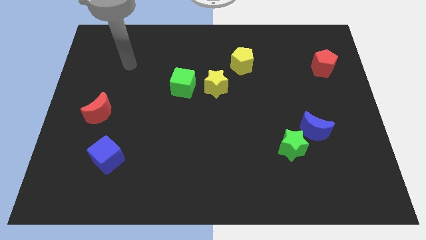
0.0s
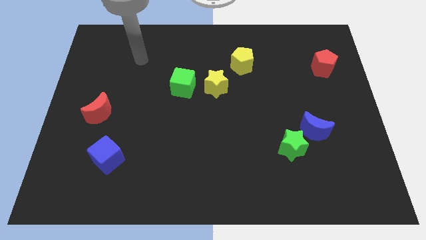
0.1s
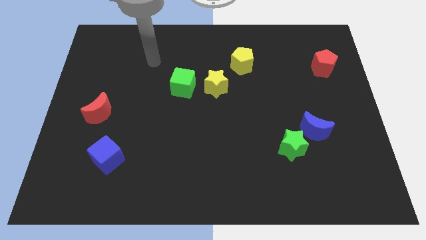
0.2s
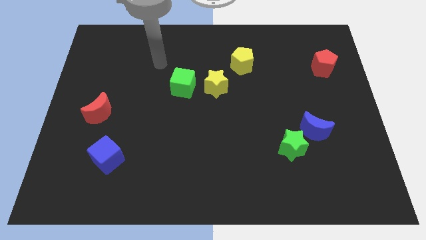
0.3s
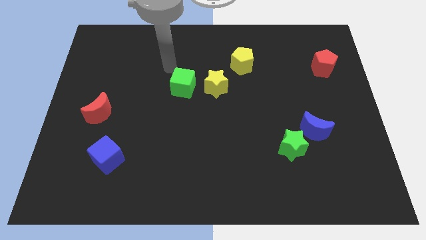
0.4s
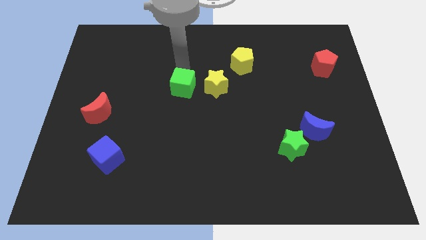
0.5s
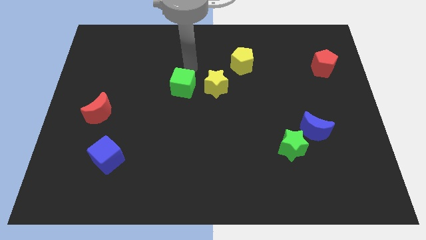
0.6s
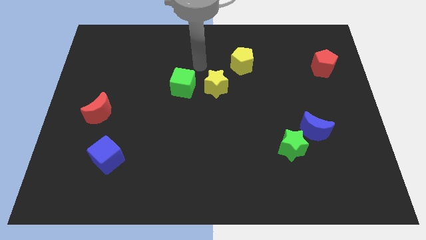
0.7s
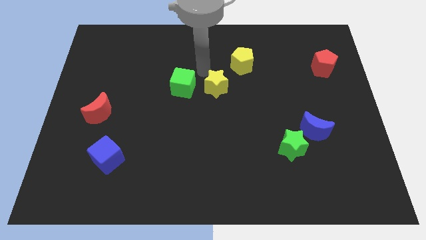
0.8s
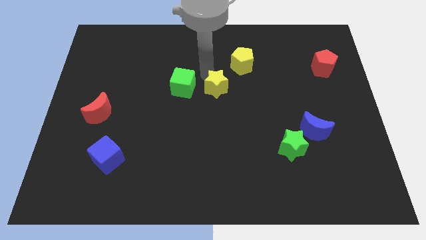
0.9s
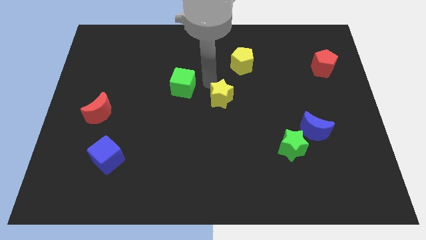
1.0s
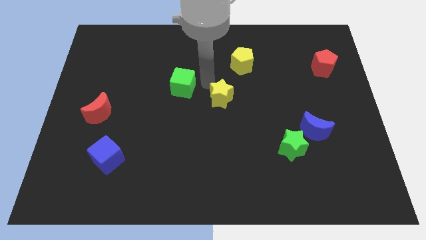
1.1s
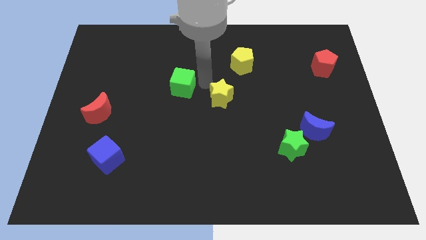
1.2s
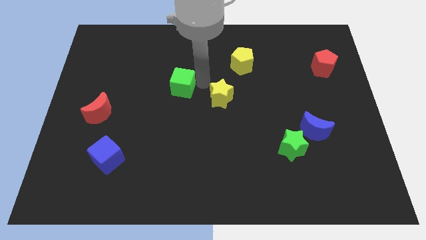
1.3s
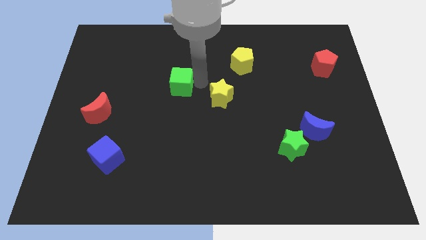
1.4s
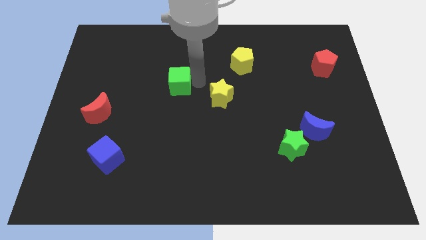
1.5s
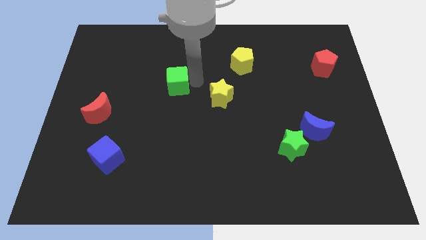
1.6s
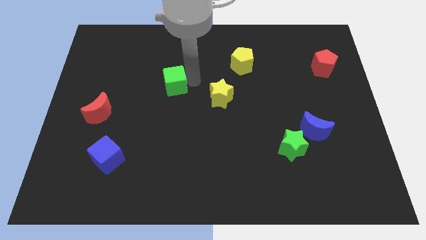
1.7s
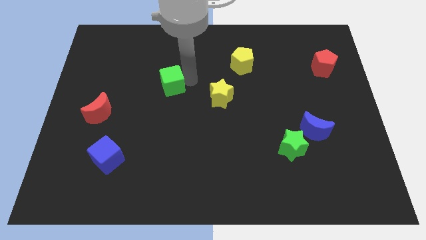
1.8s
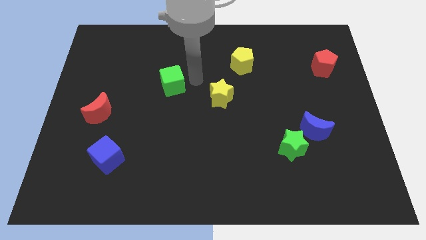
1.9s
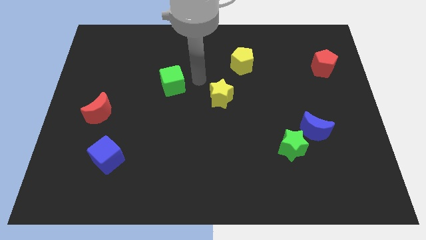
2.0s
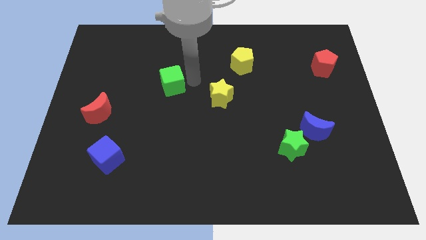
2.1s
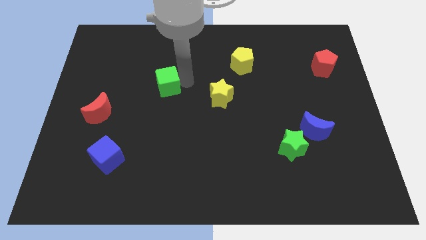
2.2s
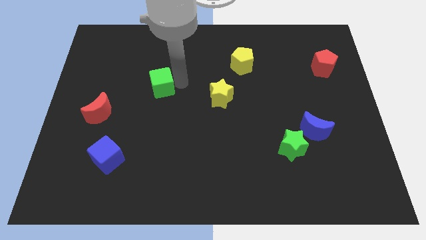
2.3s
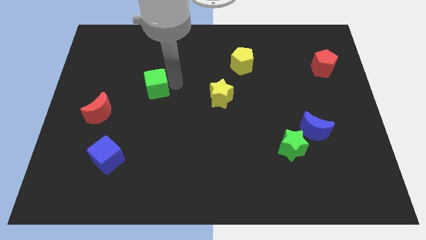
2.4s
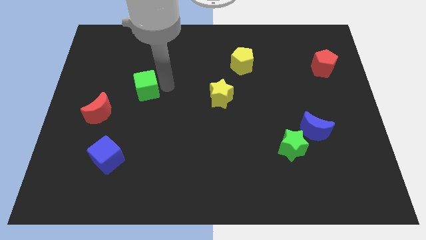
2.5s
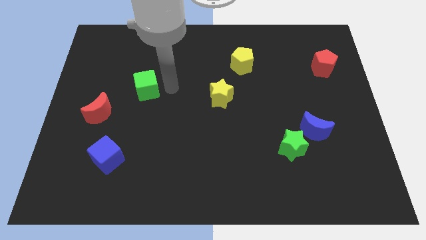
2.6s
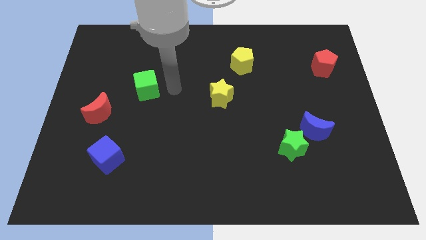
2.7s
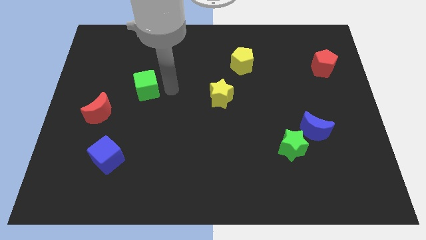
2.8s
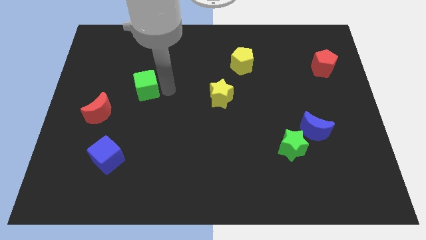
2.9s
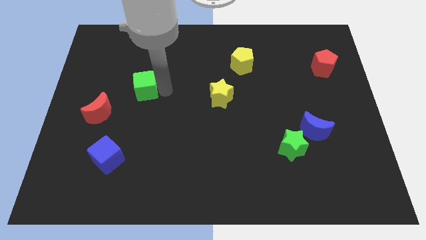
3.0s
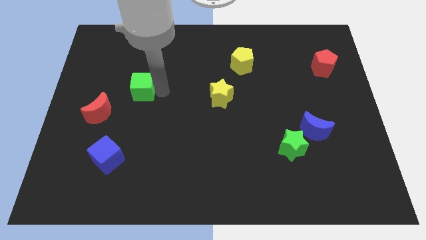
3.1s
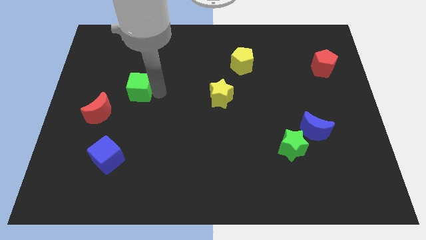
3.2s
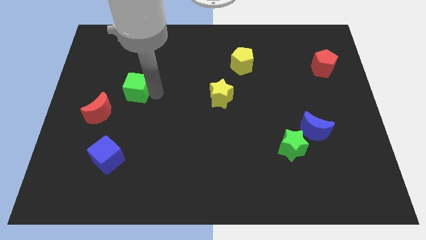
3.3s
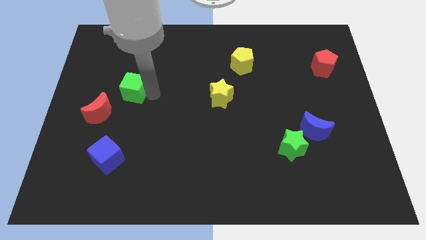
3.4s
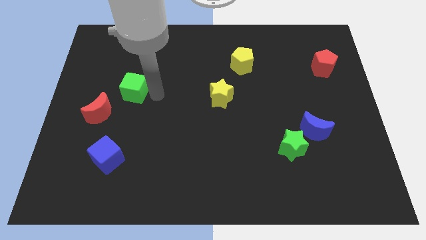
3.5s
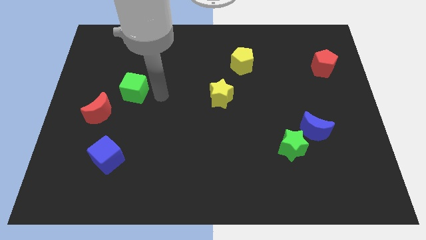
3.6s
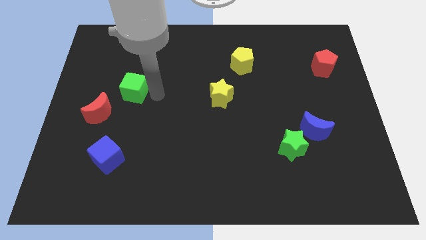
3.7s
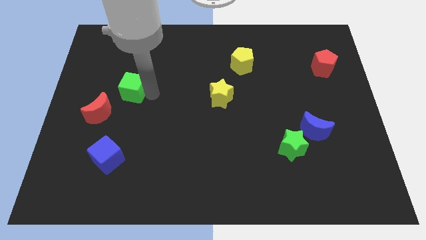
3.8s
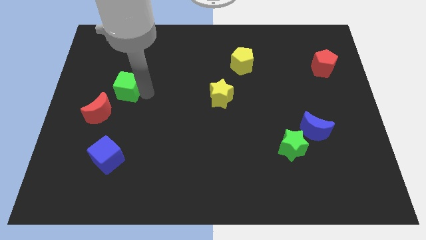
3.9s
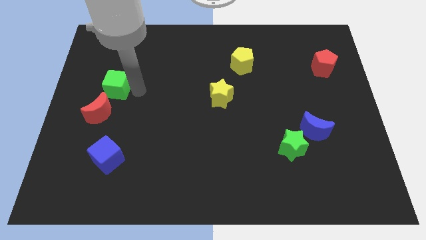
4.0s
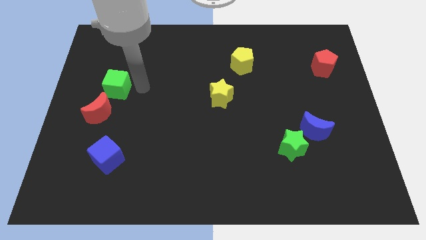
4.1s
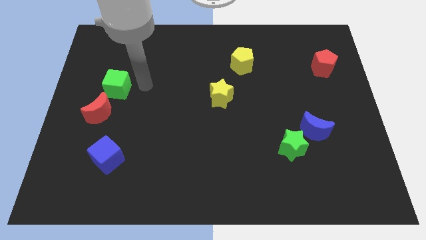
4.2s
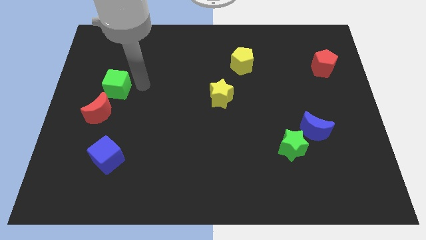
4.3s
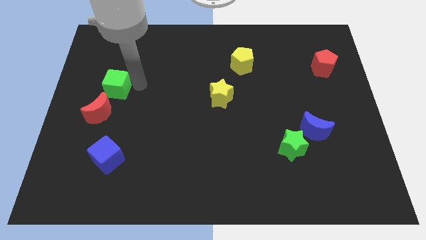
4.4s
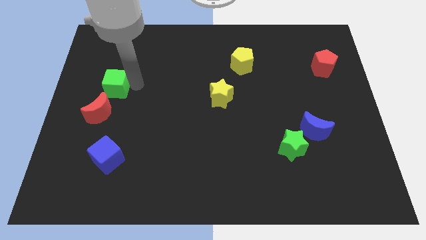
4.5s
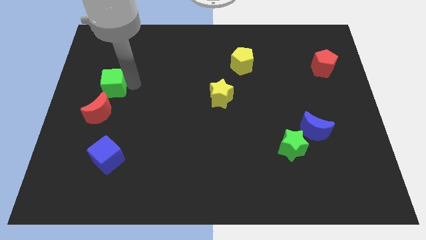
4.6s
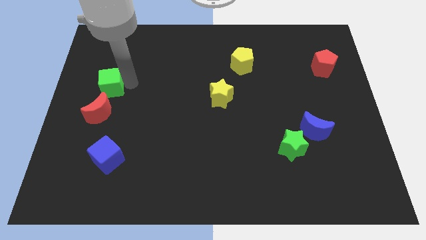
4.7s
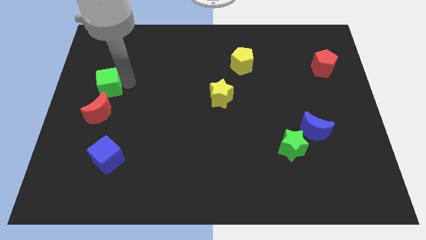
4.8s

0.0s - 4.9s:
push the green cube to the left side of the board

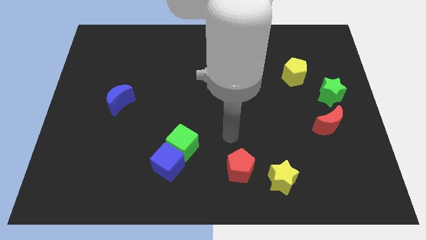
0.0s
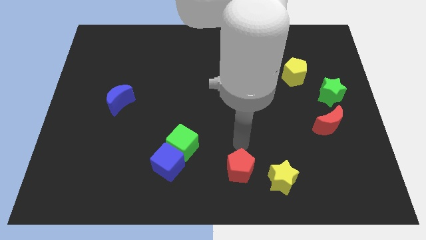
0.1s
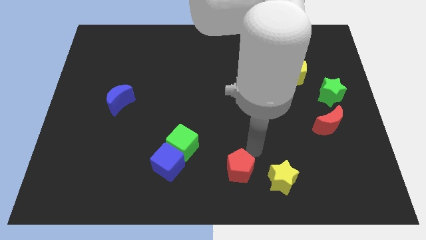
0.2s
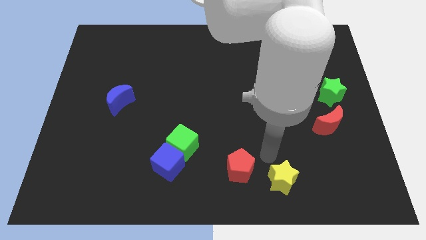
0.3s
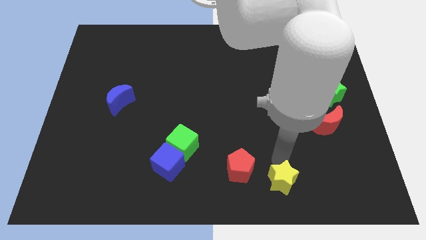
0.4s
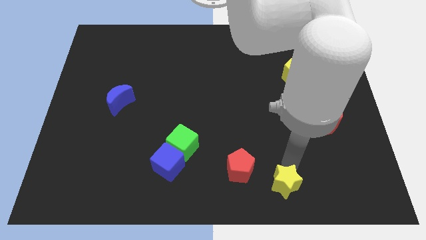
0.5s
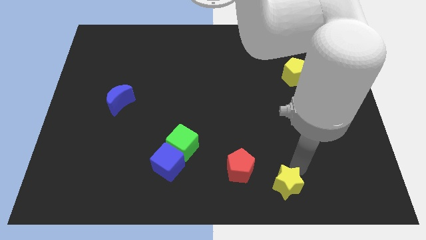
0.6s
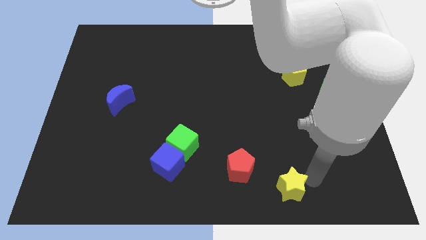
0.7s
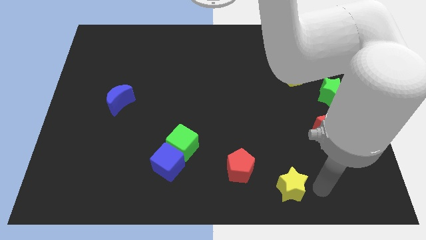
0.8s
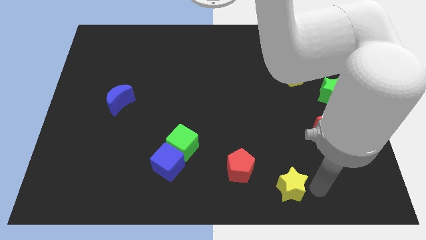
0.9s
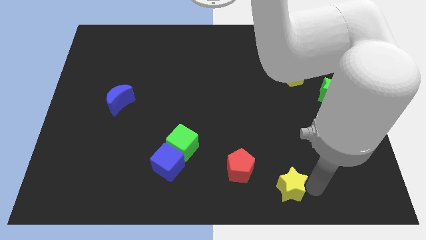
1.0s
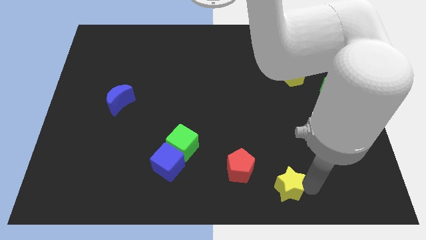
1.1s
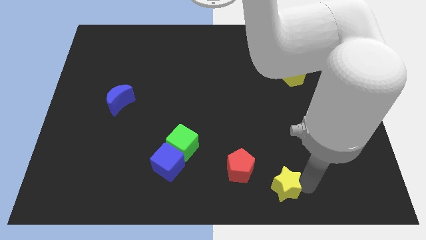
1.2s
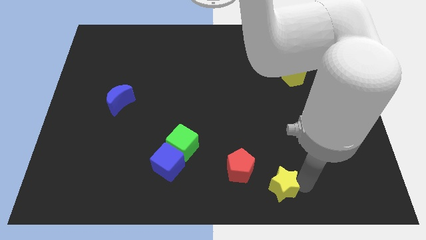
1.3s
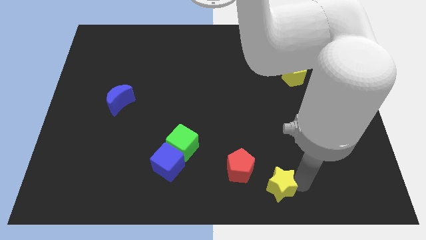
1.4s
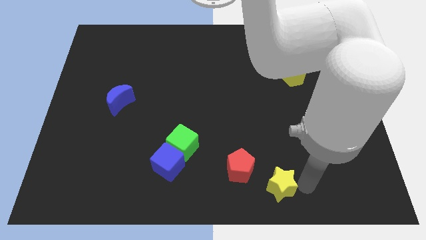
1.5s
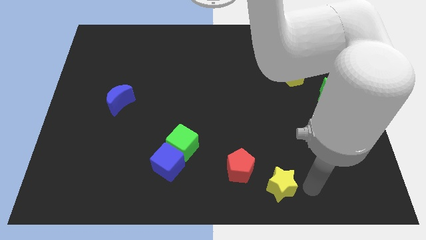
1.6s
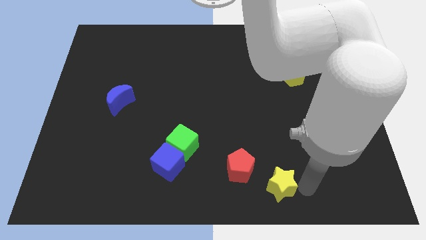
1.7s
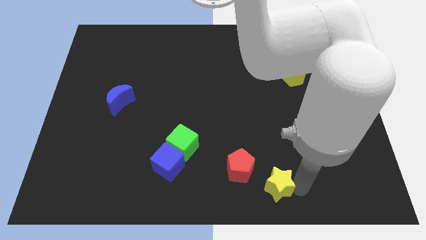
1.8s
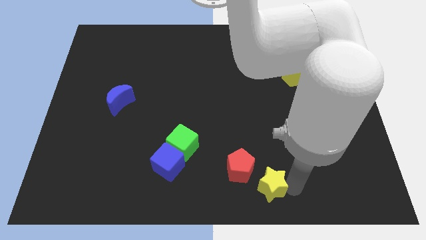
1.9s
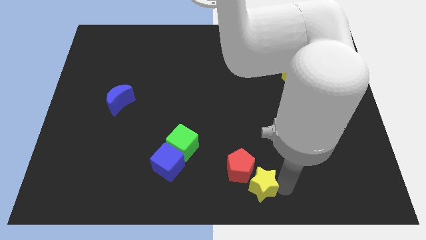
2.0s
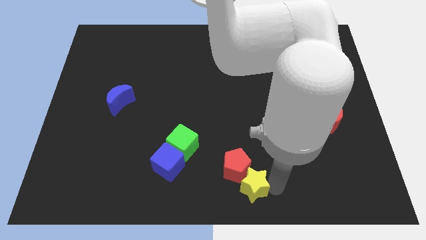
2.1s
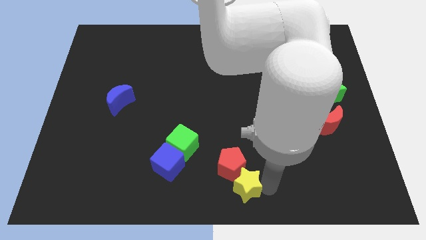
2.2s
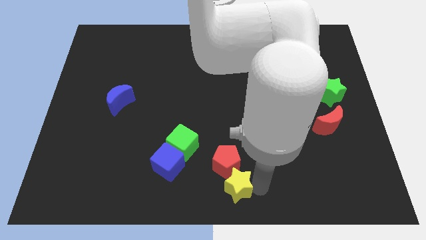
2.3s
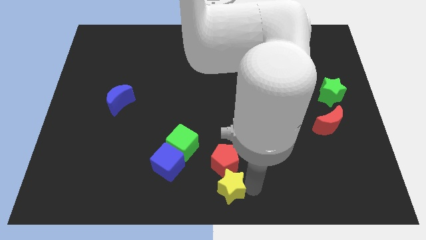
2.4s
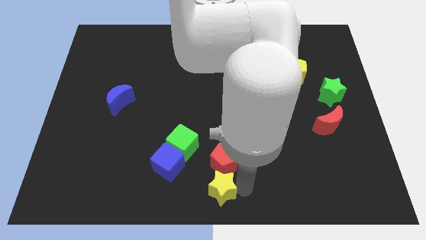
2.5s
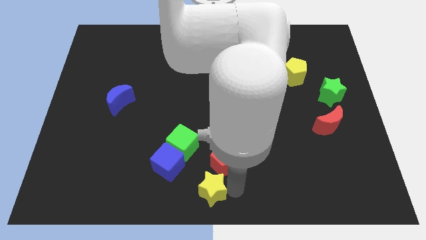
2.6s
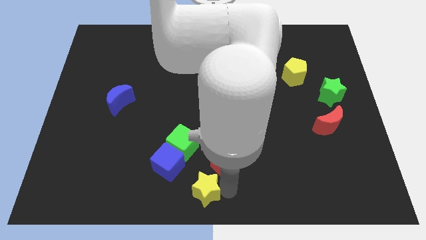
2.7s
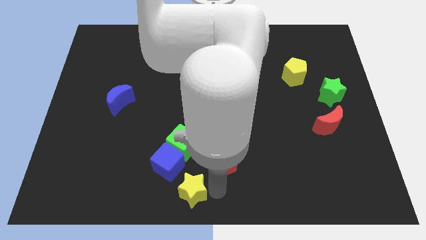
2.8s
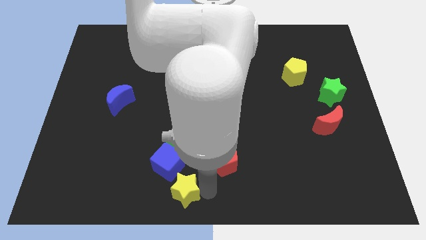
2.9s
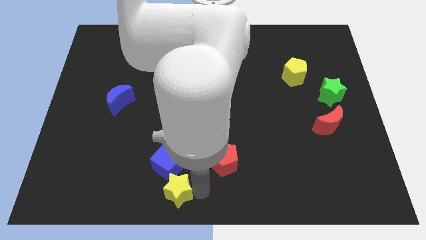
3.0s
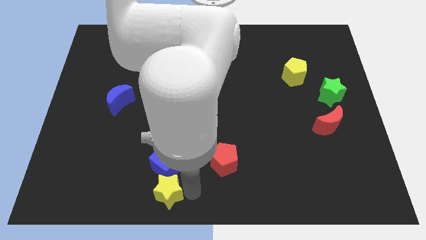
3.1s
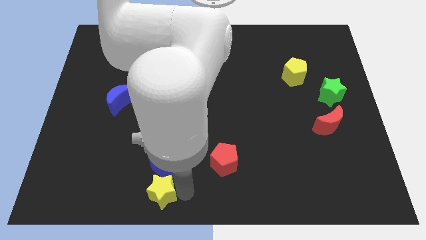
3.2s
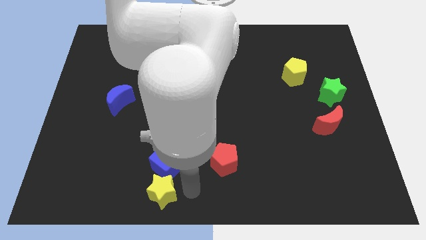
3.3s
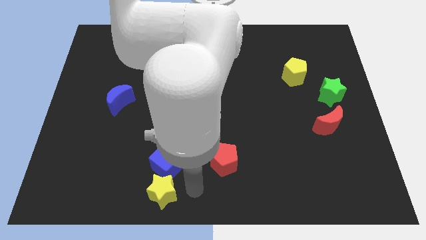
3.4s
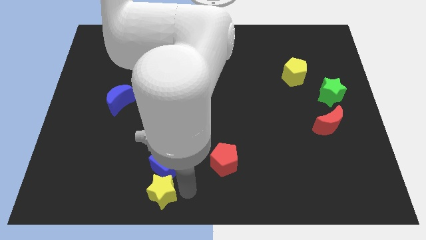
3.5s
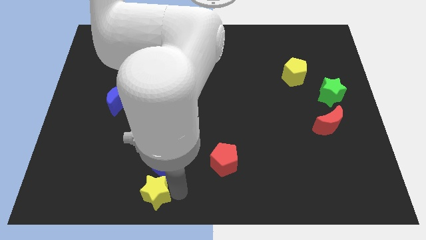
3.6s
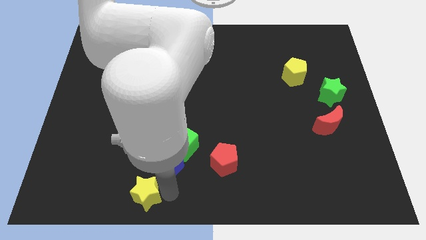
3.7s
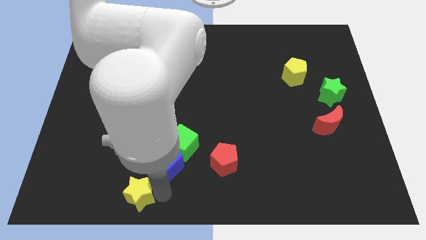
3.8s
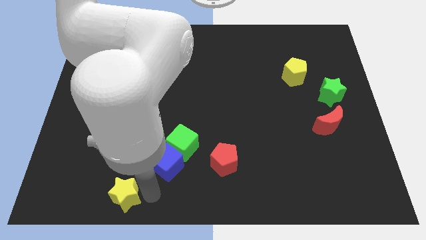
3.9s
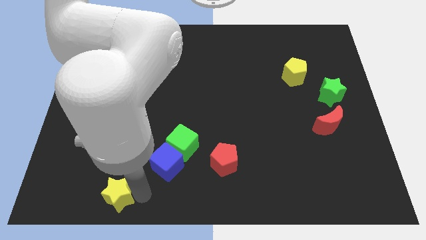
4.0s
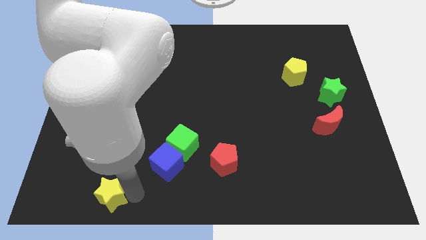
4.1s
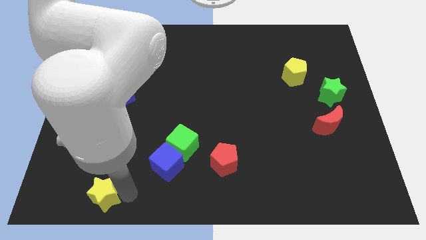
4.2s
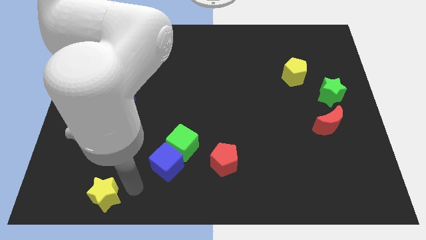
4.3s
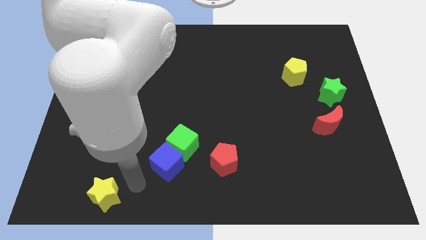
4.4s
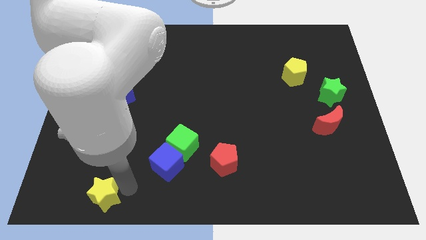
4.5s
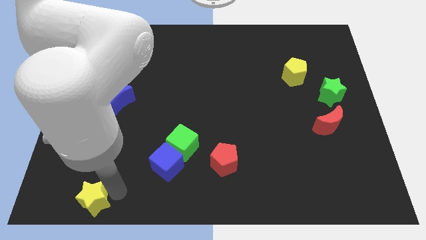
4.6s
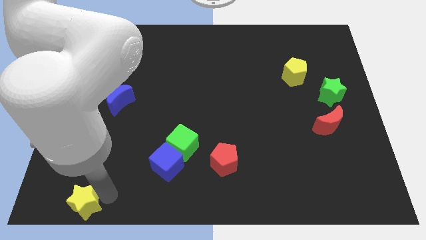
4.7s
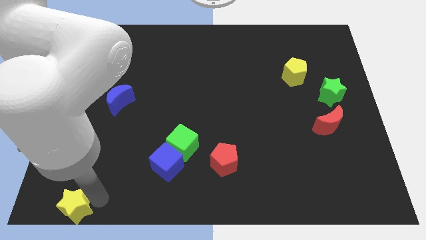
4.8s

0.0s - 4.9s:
push the yellow star to the bottom left corner
